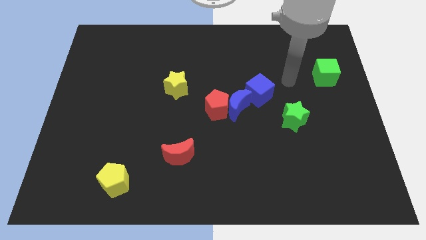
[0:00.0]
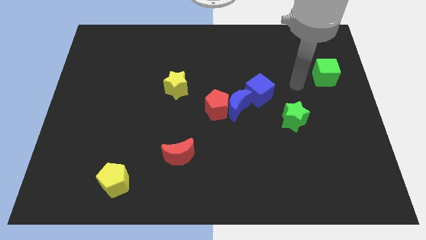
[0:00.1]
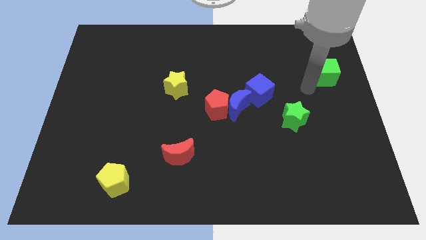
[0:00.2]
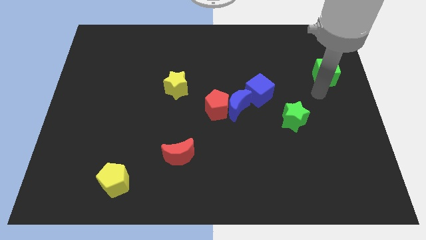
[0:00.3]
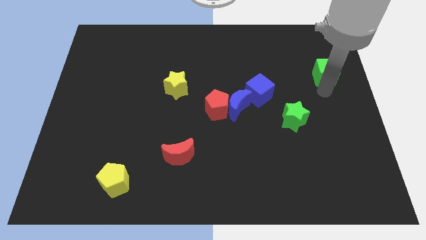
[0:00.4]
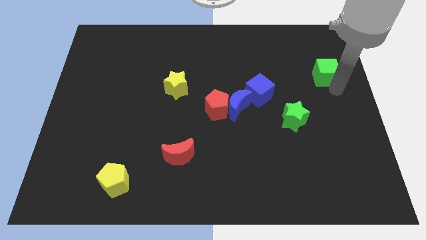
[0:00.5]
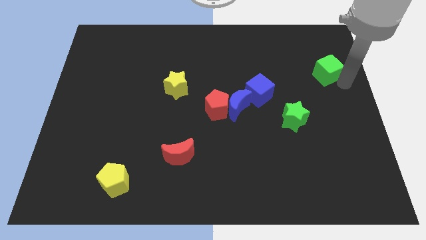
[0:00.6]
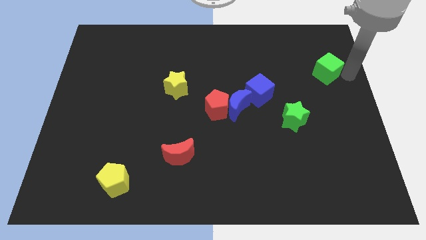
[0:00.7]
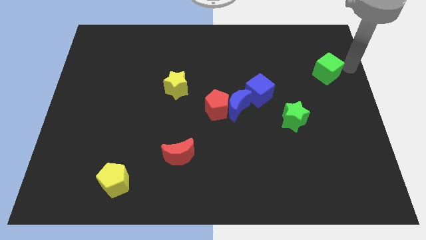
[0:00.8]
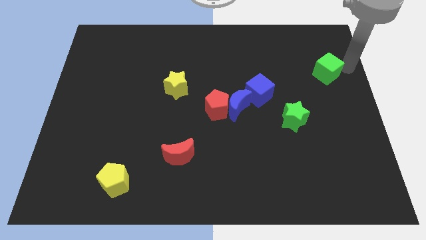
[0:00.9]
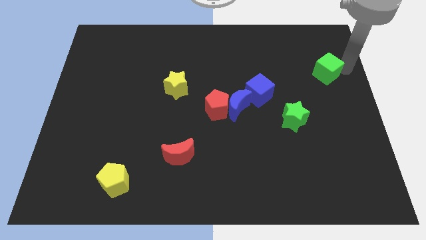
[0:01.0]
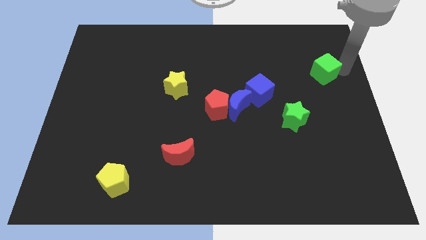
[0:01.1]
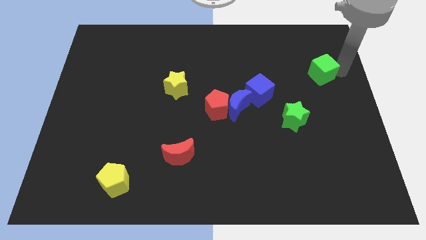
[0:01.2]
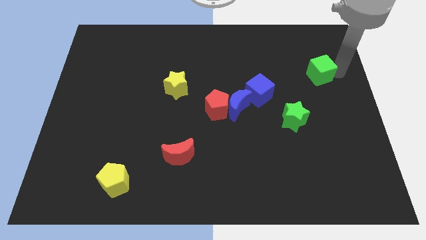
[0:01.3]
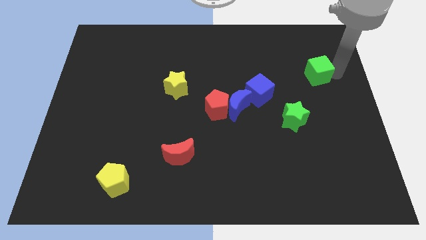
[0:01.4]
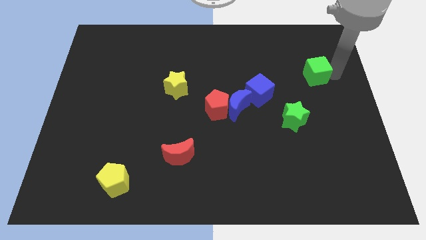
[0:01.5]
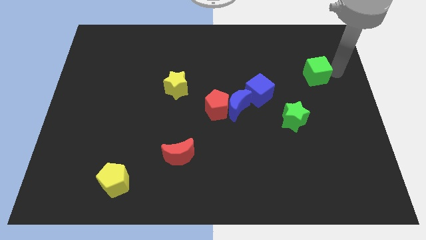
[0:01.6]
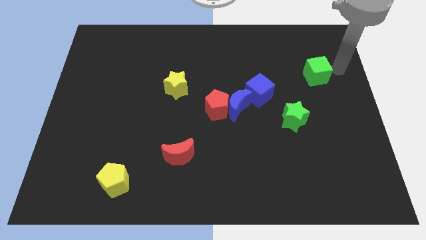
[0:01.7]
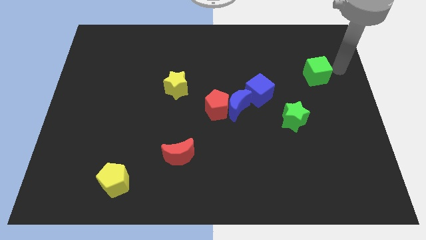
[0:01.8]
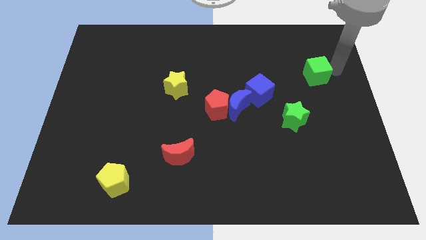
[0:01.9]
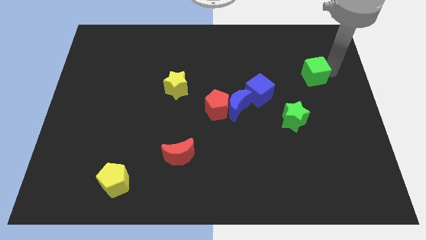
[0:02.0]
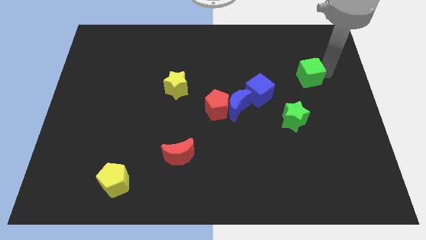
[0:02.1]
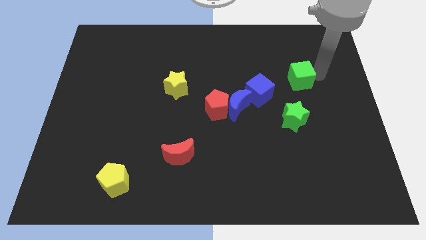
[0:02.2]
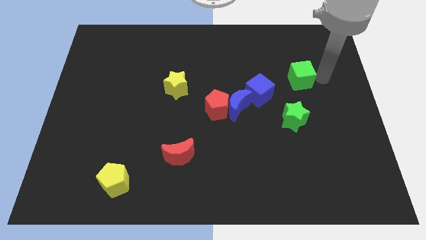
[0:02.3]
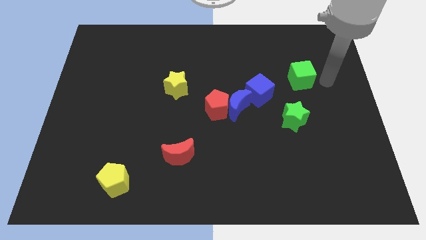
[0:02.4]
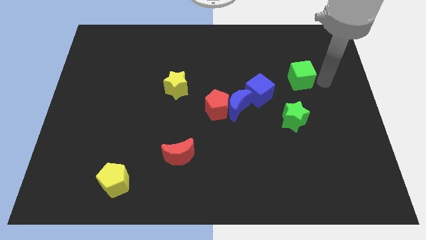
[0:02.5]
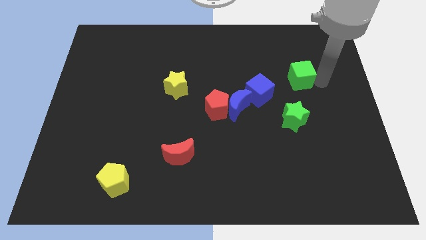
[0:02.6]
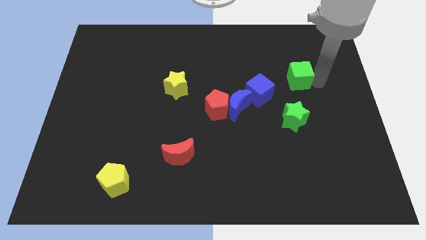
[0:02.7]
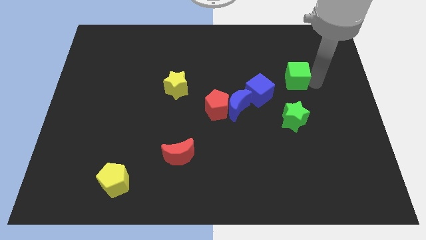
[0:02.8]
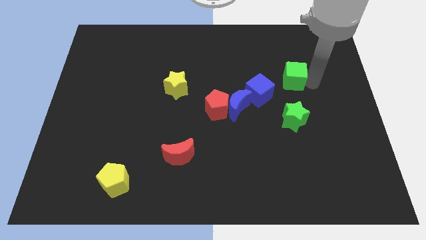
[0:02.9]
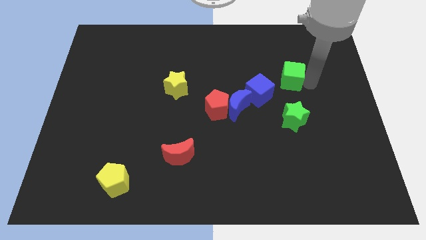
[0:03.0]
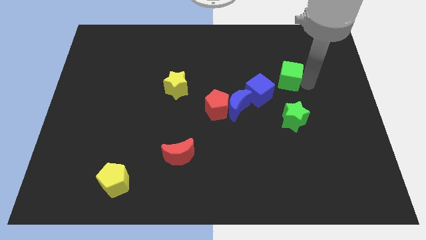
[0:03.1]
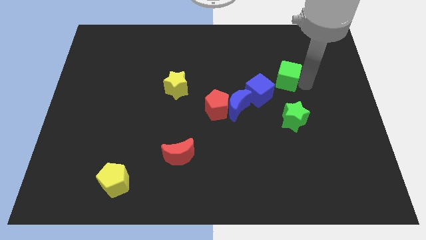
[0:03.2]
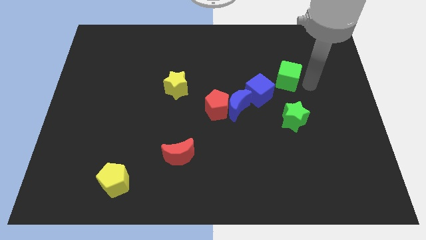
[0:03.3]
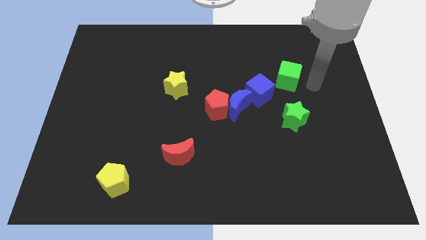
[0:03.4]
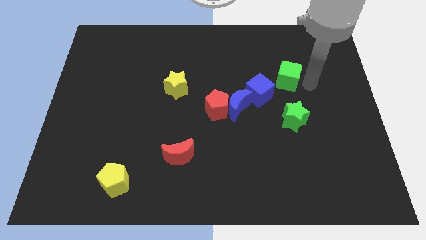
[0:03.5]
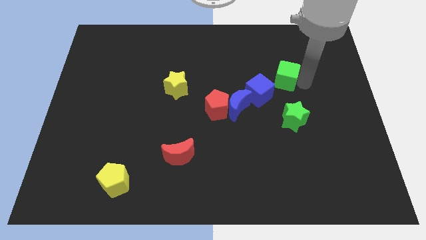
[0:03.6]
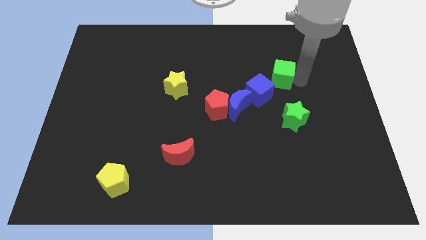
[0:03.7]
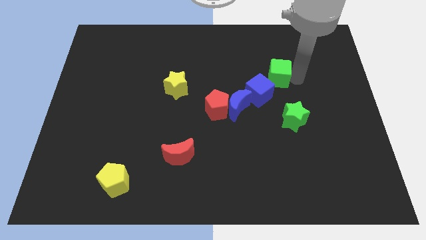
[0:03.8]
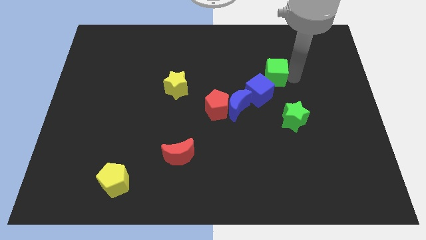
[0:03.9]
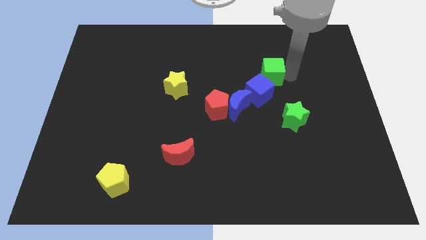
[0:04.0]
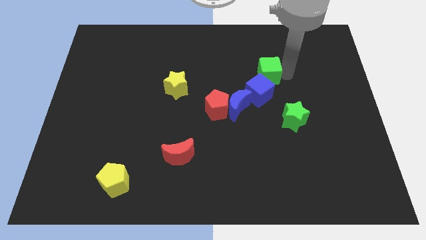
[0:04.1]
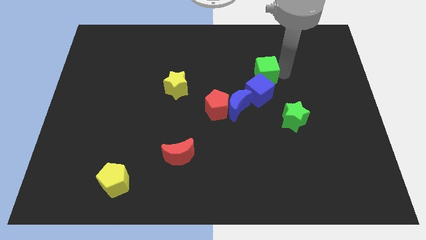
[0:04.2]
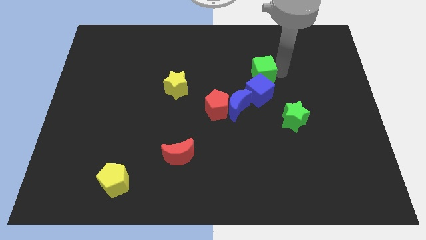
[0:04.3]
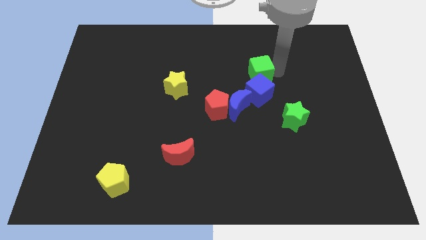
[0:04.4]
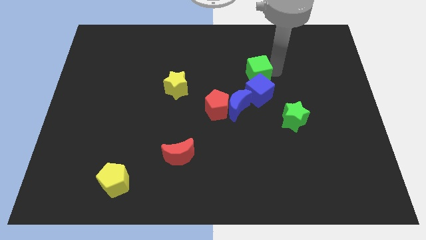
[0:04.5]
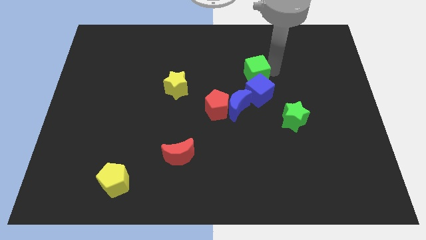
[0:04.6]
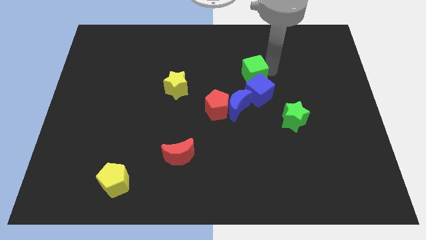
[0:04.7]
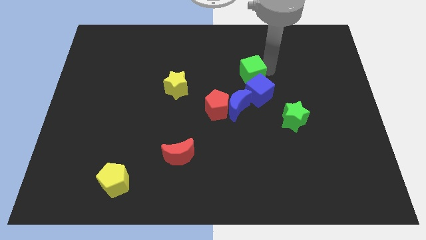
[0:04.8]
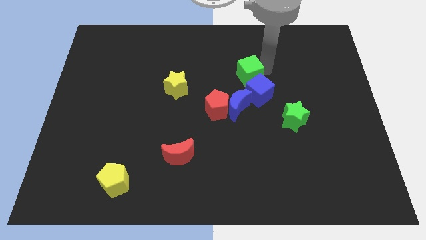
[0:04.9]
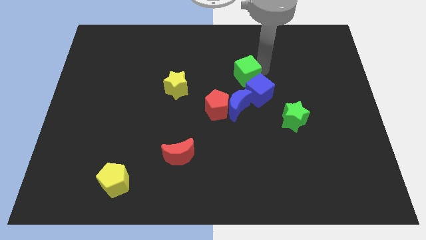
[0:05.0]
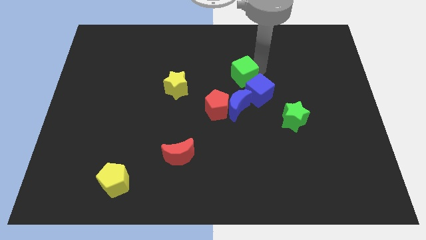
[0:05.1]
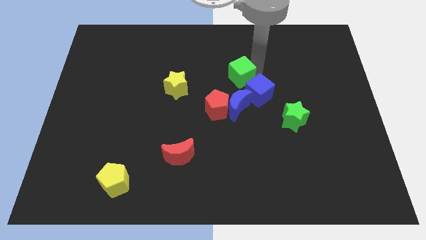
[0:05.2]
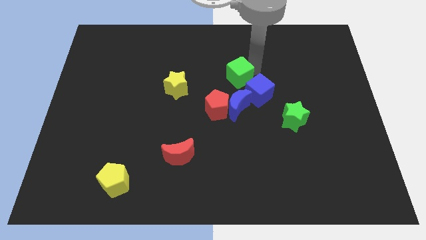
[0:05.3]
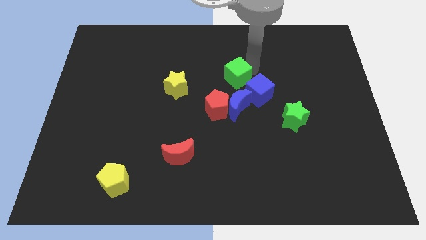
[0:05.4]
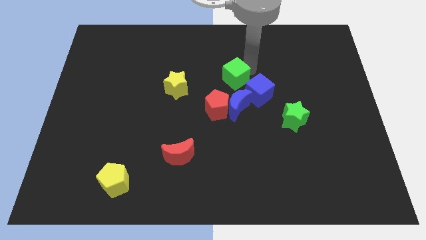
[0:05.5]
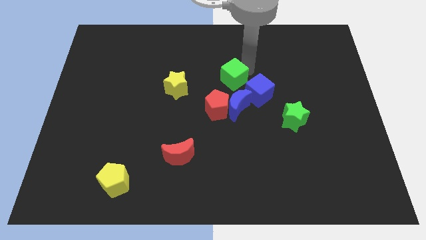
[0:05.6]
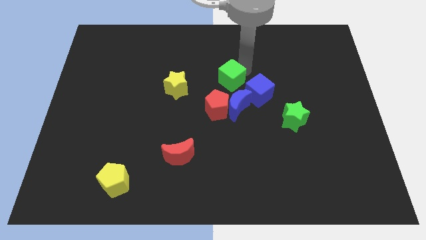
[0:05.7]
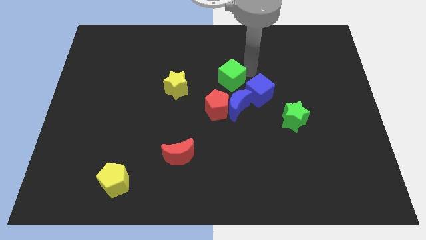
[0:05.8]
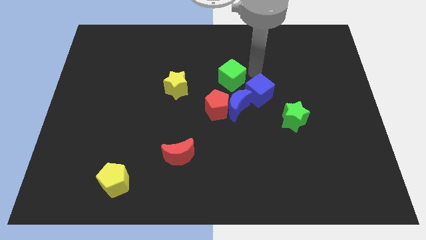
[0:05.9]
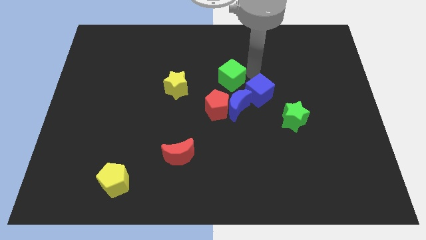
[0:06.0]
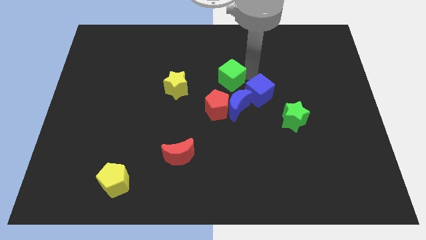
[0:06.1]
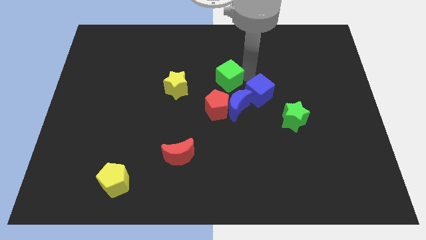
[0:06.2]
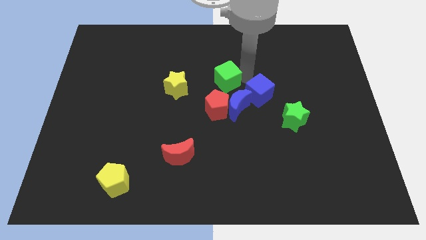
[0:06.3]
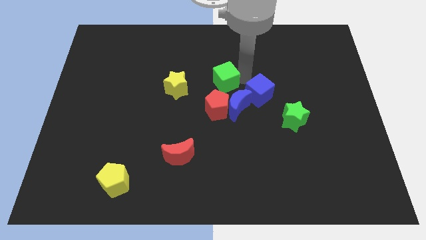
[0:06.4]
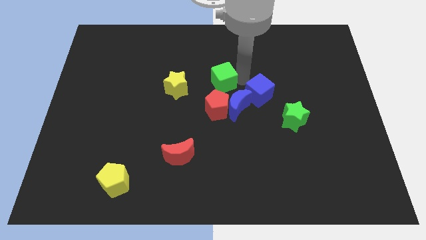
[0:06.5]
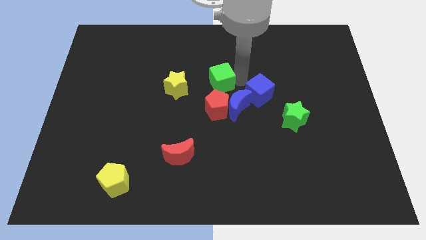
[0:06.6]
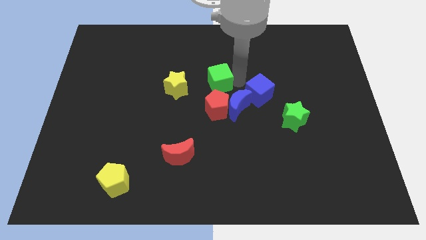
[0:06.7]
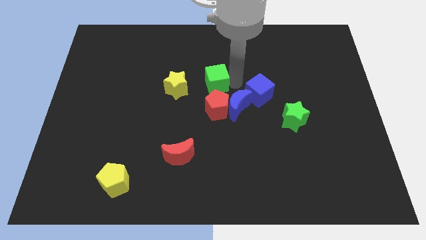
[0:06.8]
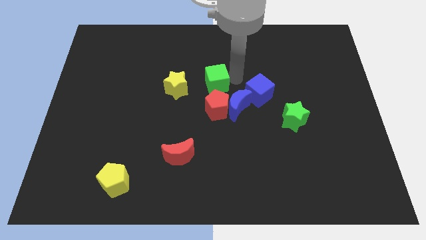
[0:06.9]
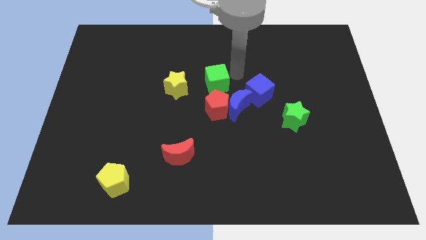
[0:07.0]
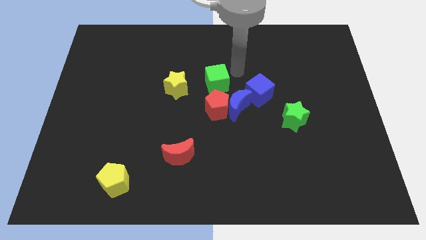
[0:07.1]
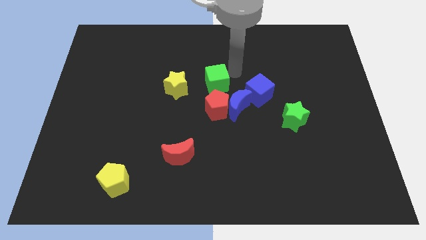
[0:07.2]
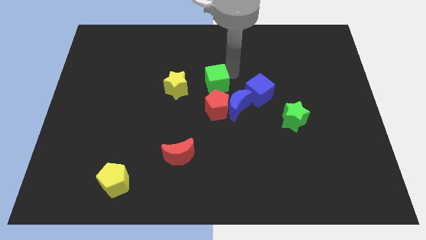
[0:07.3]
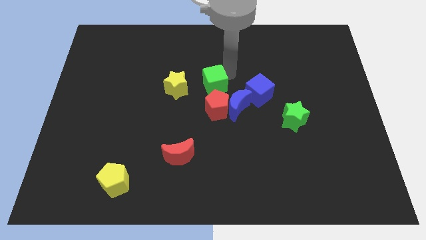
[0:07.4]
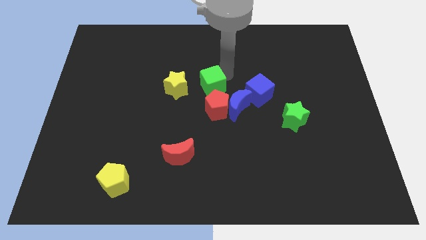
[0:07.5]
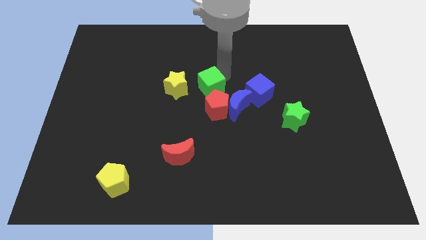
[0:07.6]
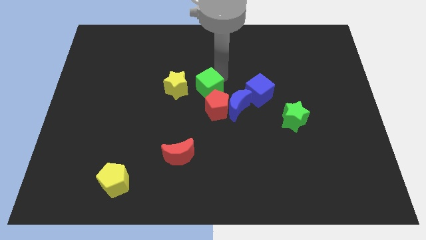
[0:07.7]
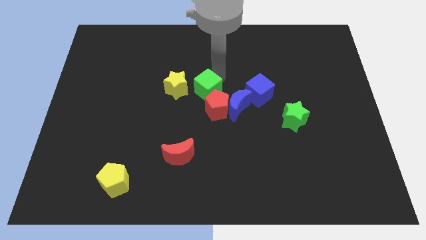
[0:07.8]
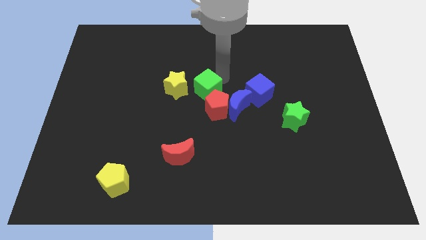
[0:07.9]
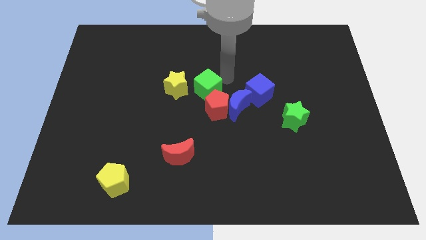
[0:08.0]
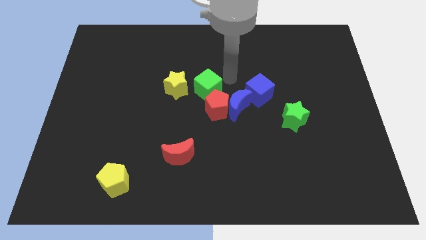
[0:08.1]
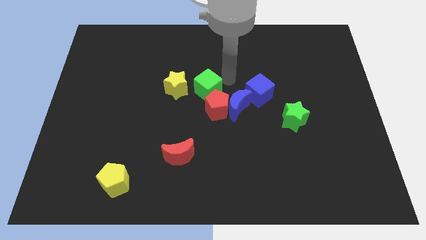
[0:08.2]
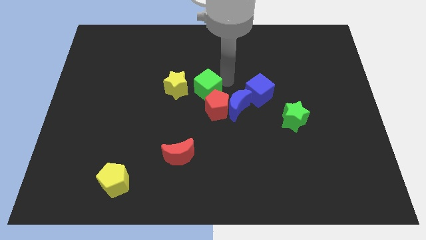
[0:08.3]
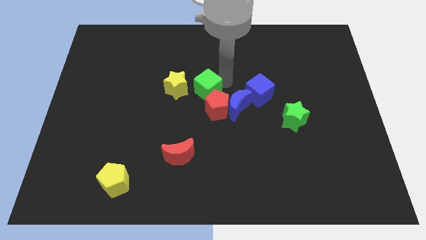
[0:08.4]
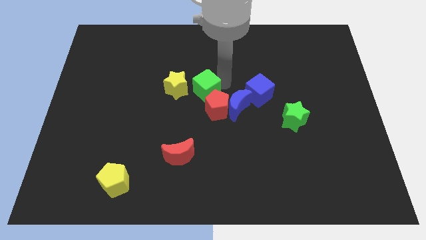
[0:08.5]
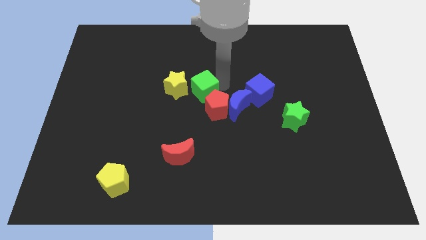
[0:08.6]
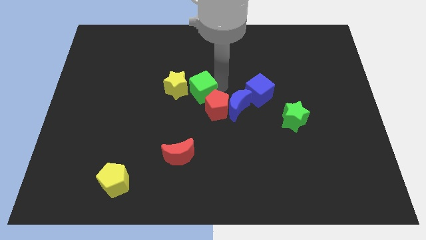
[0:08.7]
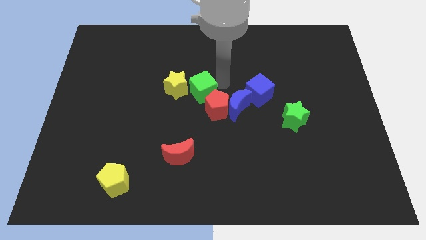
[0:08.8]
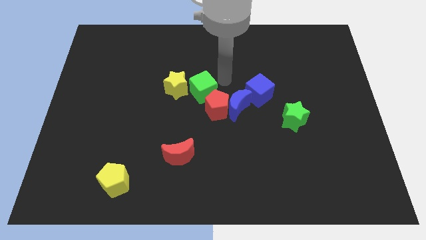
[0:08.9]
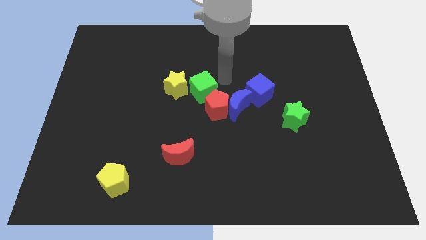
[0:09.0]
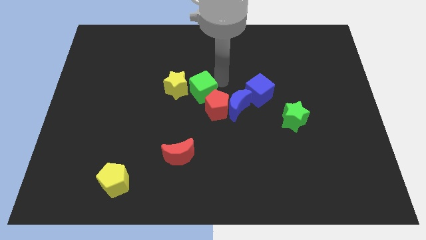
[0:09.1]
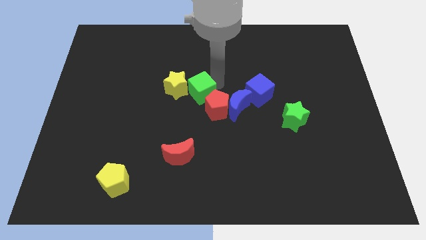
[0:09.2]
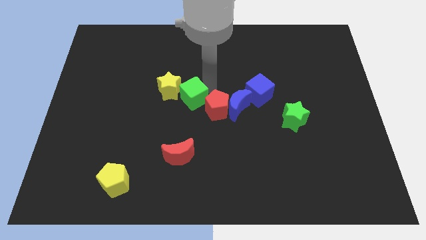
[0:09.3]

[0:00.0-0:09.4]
move the green cube left of the red pentagon
